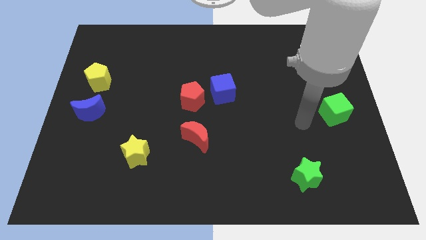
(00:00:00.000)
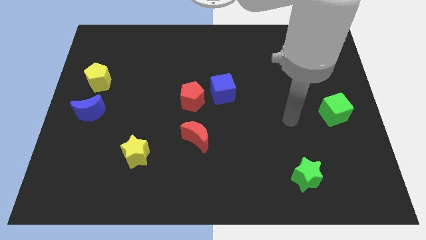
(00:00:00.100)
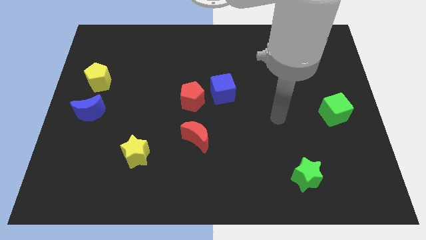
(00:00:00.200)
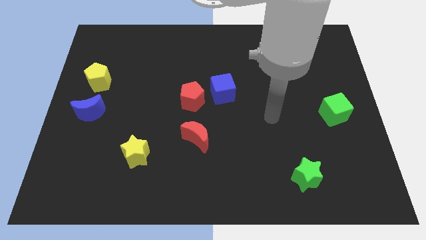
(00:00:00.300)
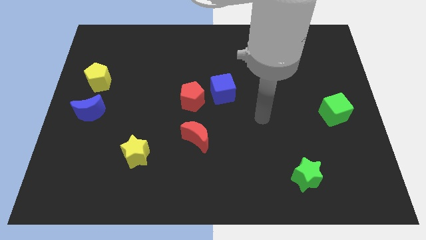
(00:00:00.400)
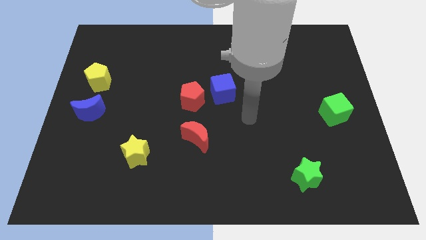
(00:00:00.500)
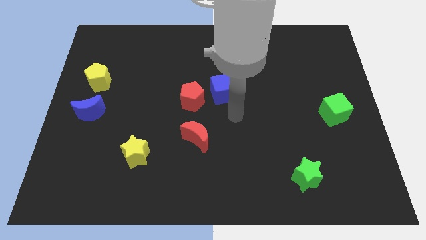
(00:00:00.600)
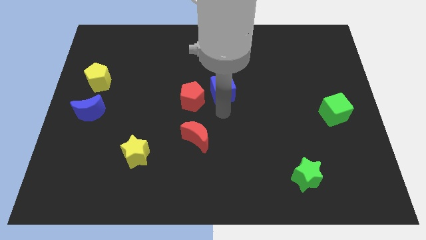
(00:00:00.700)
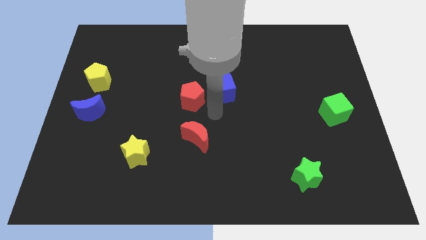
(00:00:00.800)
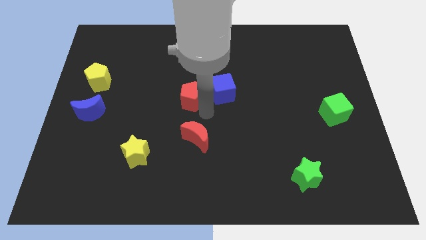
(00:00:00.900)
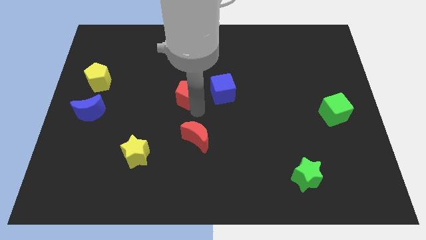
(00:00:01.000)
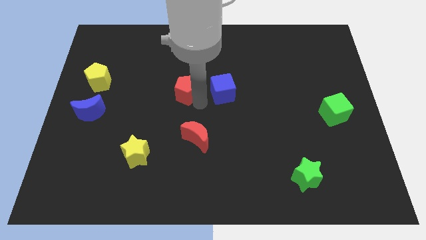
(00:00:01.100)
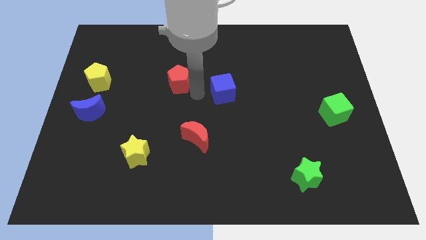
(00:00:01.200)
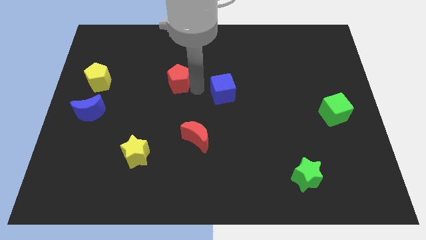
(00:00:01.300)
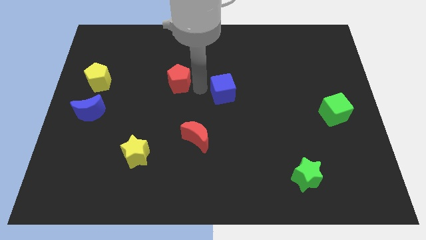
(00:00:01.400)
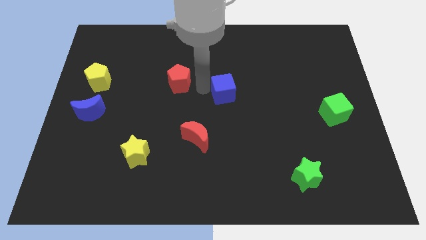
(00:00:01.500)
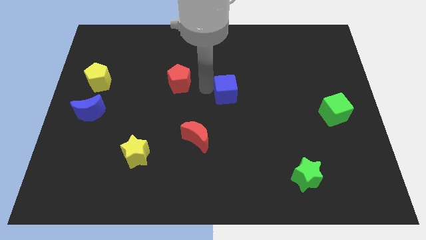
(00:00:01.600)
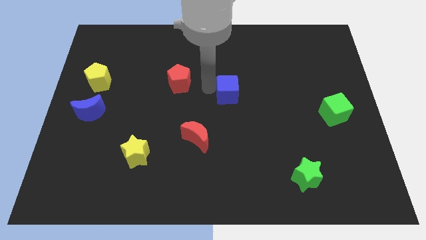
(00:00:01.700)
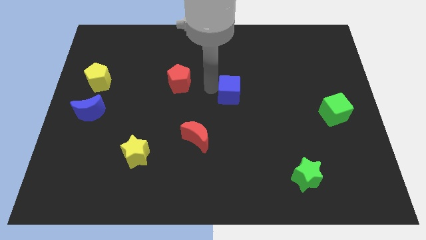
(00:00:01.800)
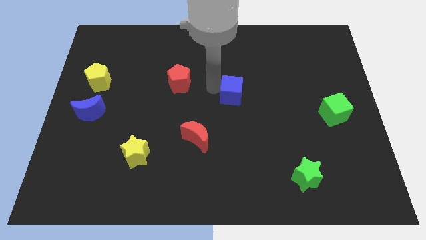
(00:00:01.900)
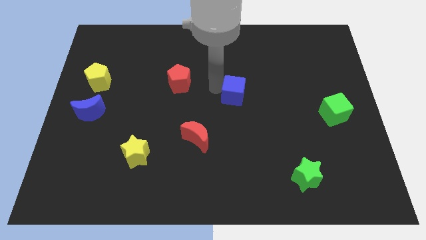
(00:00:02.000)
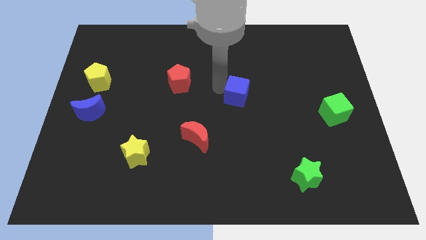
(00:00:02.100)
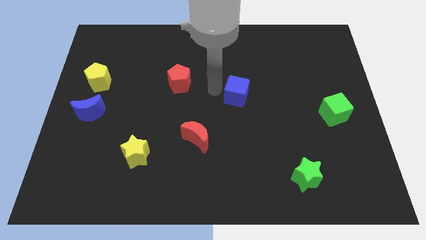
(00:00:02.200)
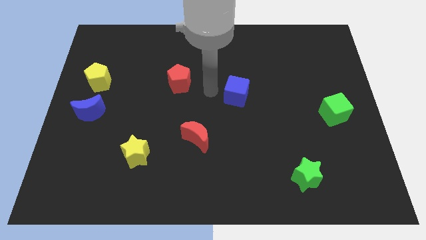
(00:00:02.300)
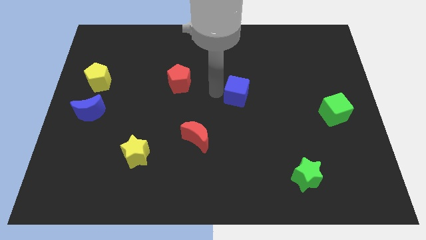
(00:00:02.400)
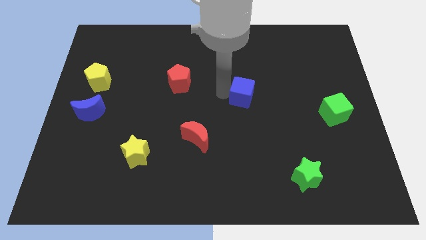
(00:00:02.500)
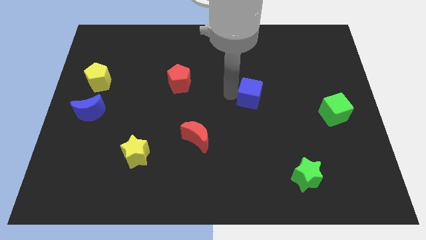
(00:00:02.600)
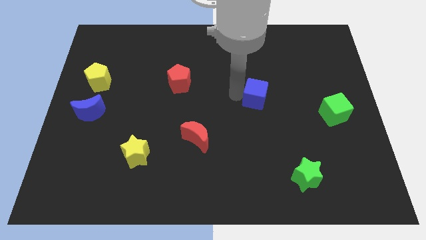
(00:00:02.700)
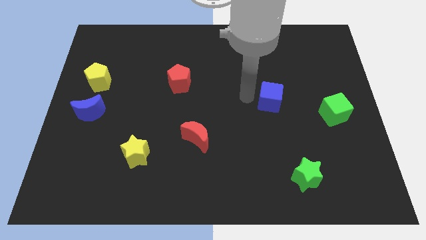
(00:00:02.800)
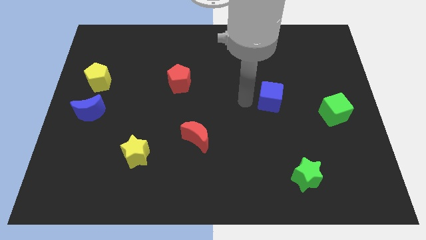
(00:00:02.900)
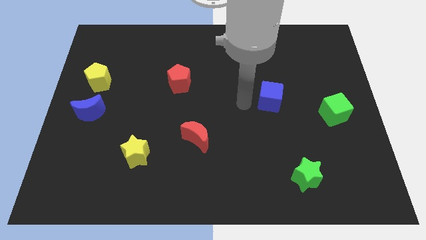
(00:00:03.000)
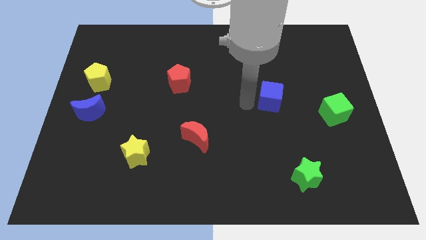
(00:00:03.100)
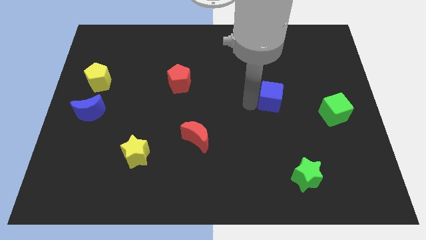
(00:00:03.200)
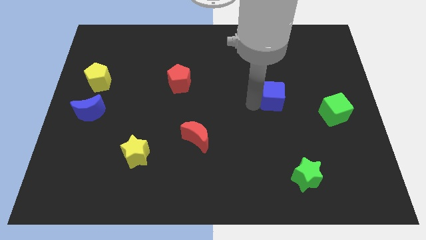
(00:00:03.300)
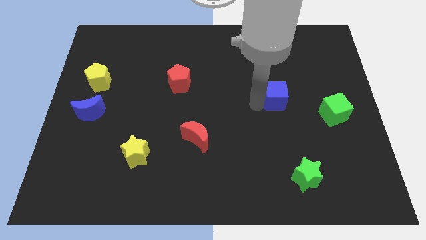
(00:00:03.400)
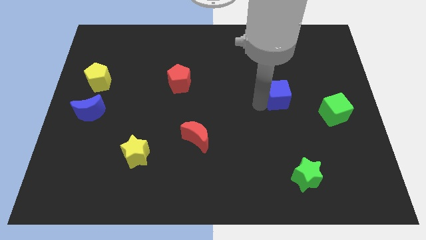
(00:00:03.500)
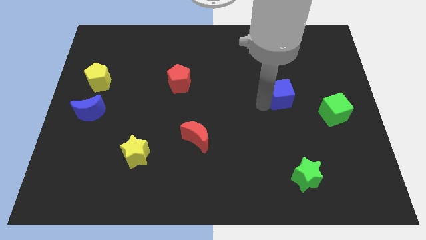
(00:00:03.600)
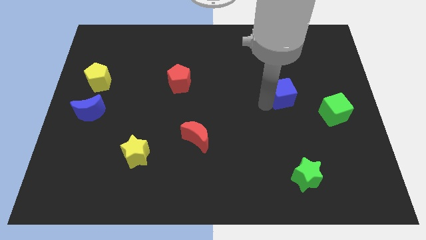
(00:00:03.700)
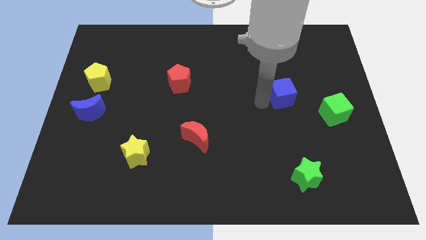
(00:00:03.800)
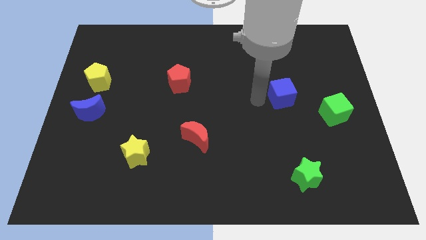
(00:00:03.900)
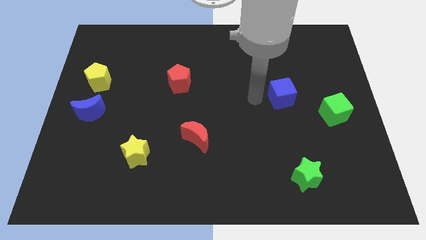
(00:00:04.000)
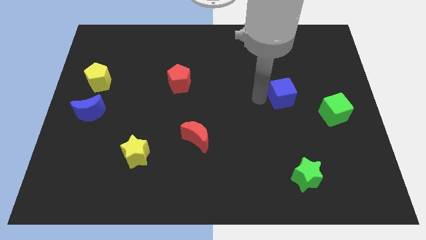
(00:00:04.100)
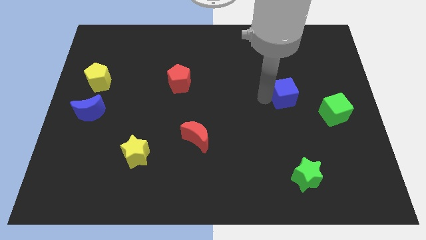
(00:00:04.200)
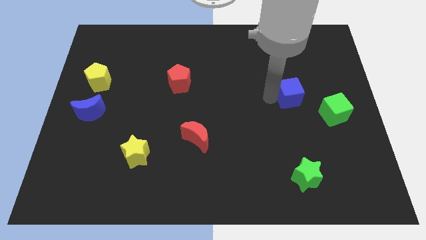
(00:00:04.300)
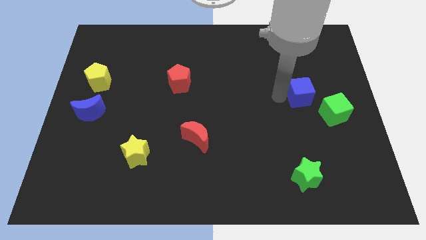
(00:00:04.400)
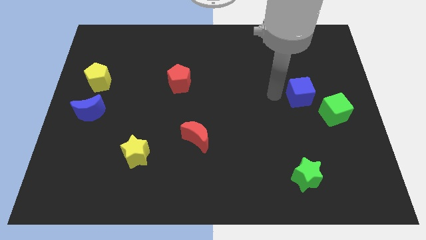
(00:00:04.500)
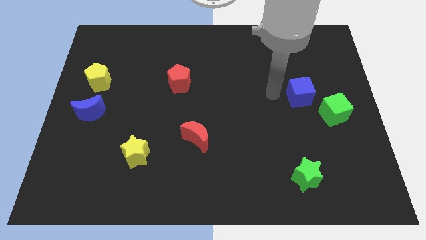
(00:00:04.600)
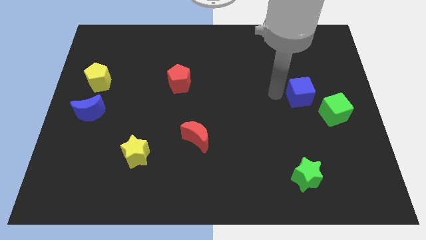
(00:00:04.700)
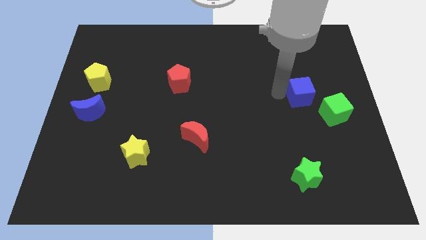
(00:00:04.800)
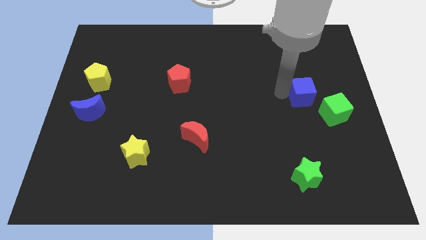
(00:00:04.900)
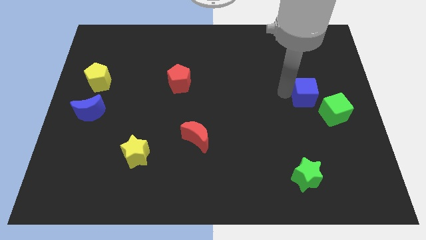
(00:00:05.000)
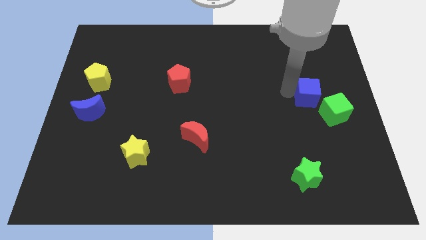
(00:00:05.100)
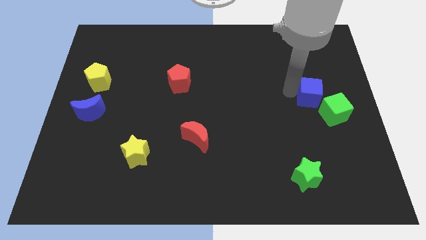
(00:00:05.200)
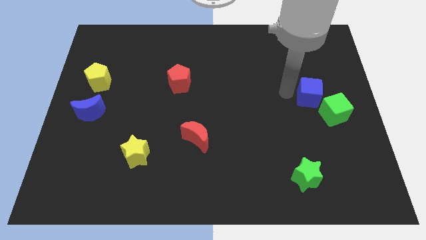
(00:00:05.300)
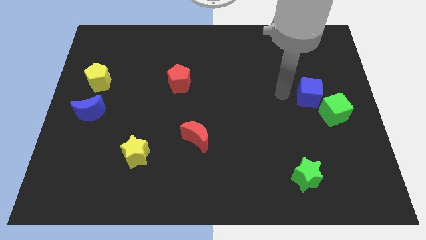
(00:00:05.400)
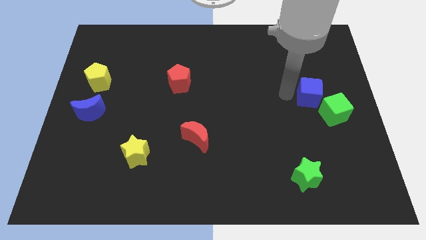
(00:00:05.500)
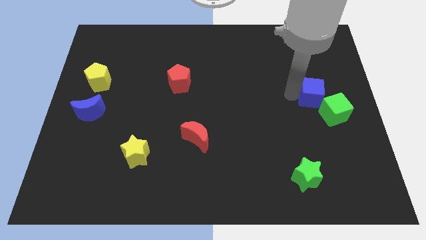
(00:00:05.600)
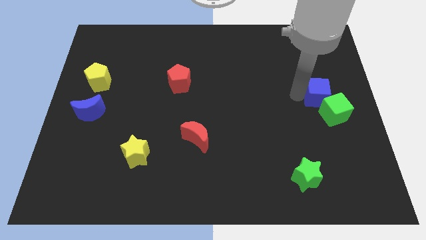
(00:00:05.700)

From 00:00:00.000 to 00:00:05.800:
put the blue cube to the center right
